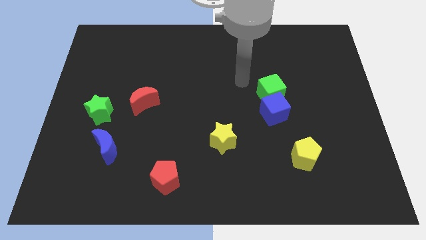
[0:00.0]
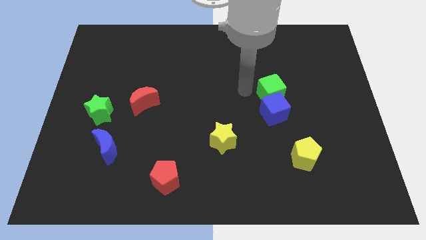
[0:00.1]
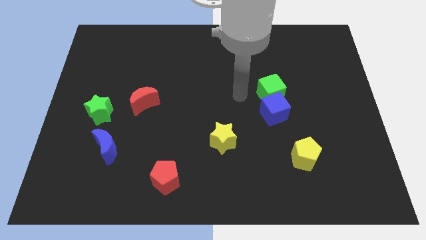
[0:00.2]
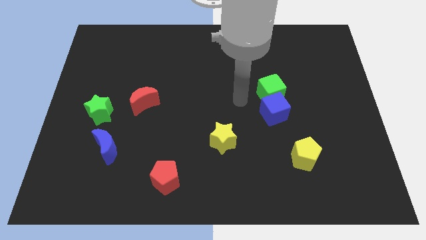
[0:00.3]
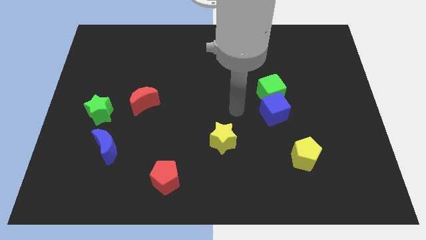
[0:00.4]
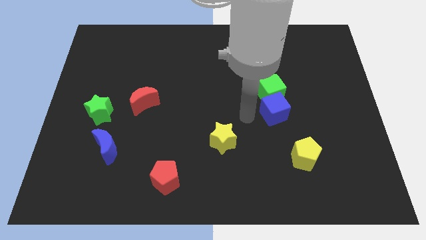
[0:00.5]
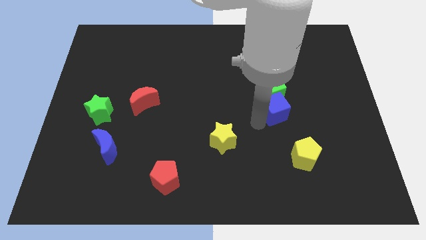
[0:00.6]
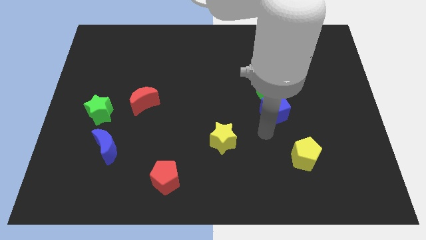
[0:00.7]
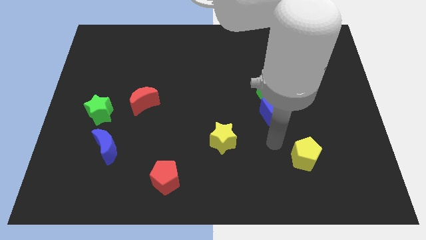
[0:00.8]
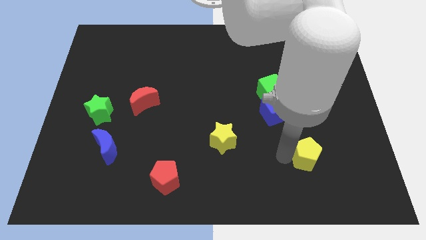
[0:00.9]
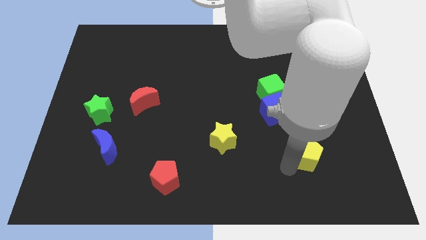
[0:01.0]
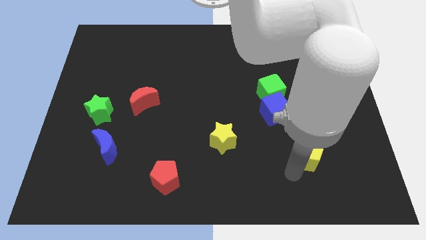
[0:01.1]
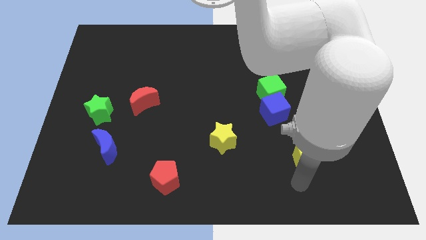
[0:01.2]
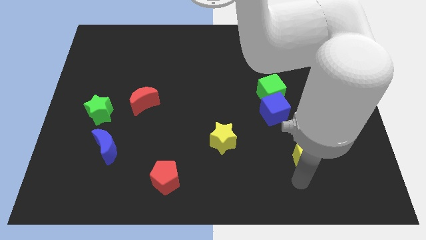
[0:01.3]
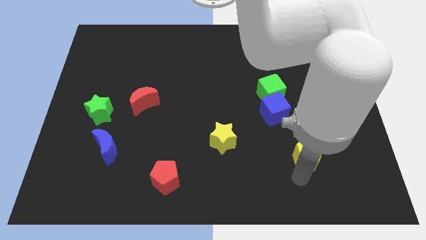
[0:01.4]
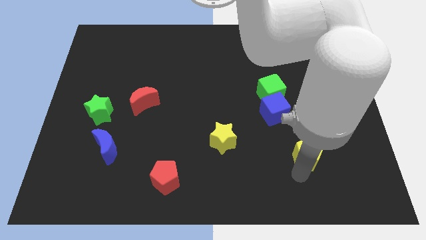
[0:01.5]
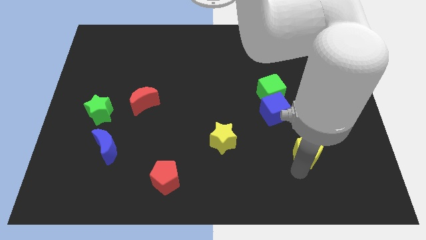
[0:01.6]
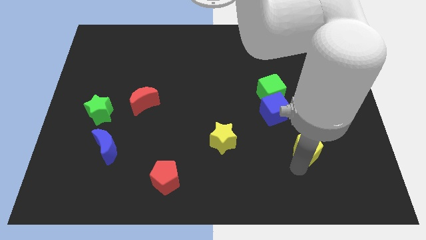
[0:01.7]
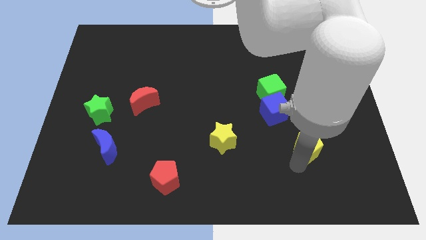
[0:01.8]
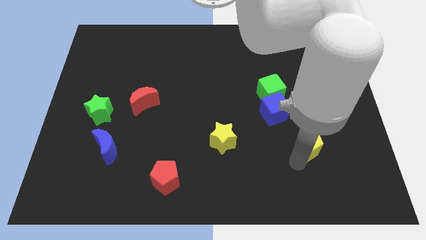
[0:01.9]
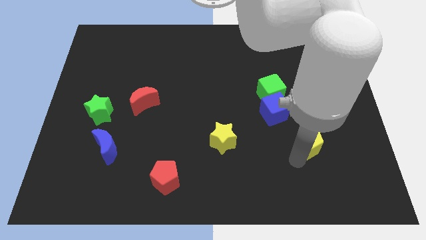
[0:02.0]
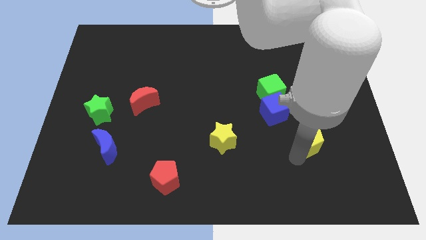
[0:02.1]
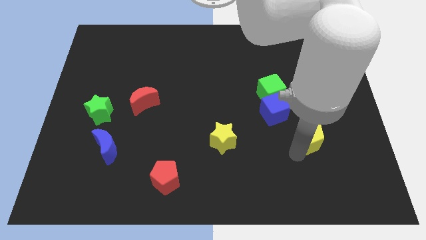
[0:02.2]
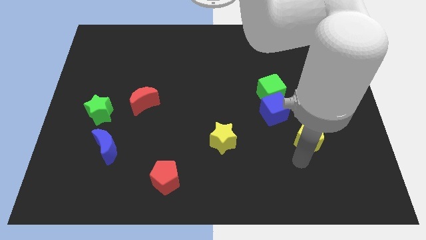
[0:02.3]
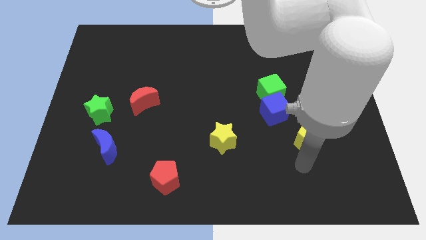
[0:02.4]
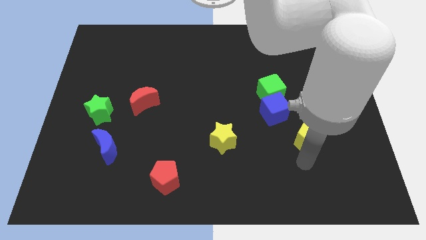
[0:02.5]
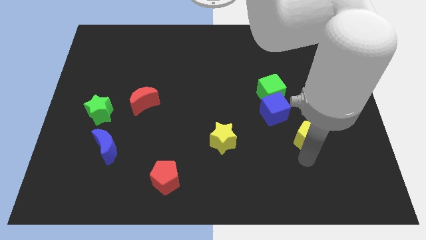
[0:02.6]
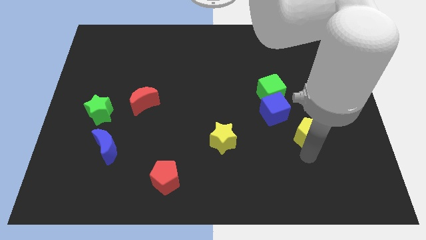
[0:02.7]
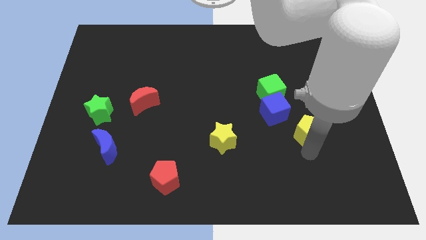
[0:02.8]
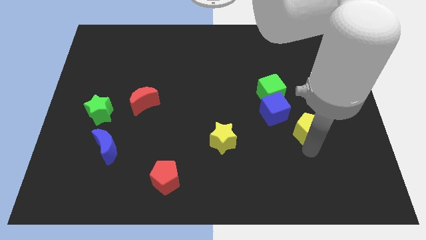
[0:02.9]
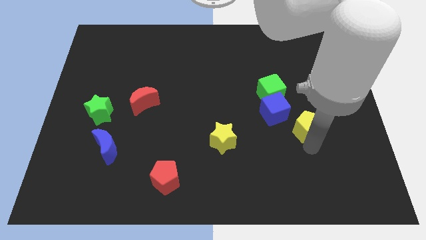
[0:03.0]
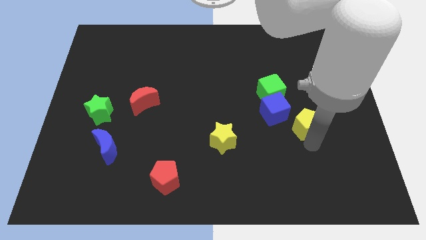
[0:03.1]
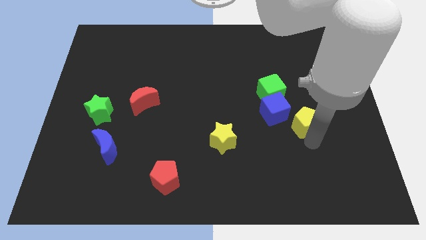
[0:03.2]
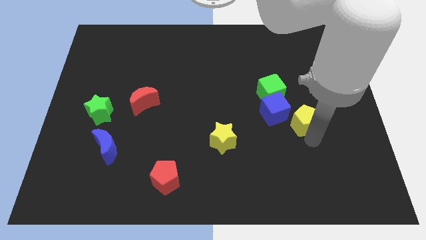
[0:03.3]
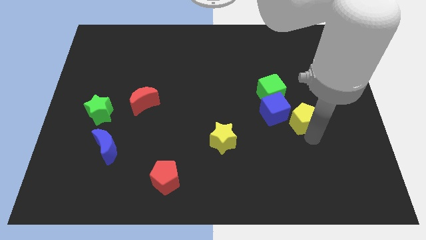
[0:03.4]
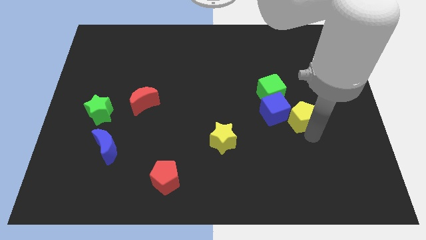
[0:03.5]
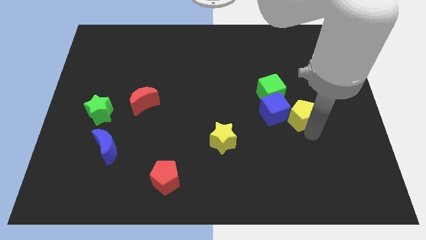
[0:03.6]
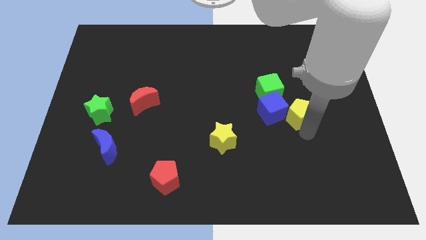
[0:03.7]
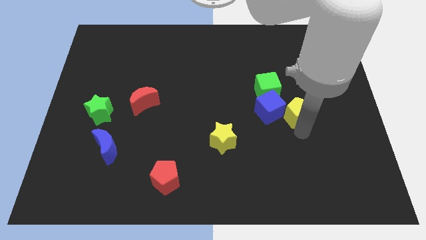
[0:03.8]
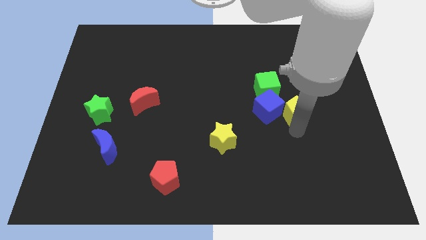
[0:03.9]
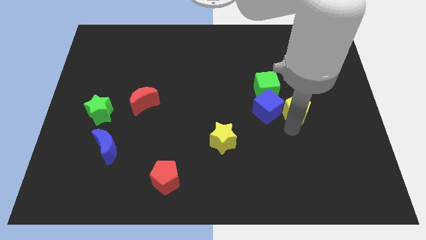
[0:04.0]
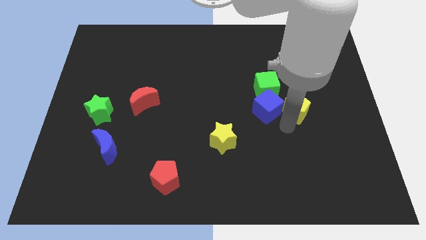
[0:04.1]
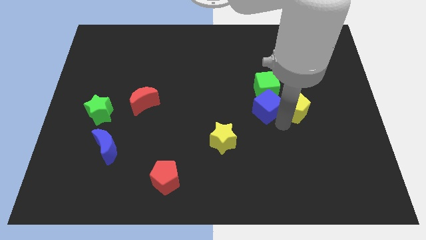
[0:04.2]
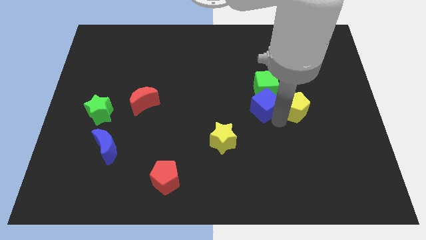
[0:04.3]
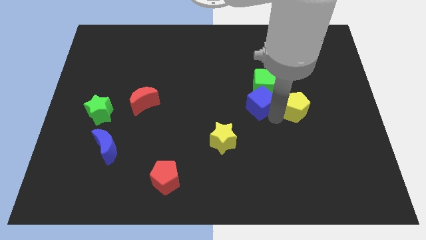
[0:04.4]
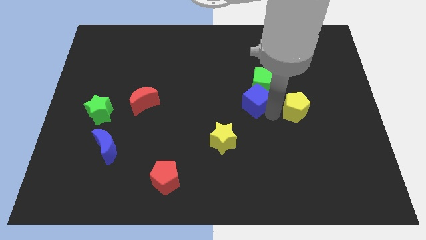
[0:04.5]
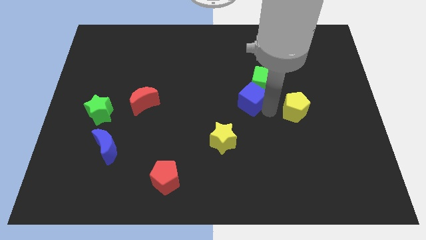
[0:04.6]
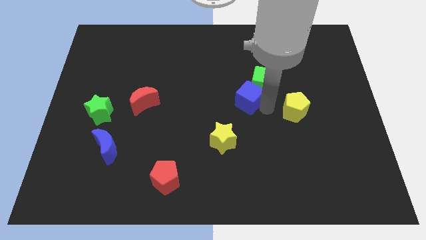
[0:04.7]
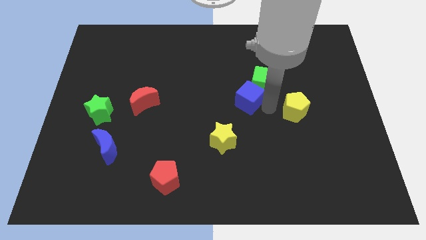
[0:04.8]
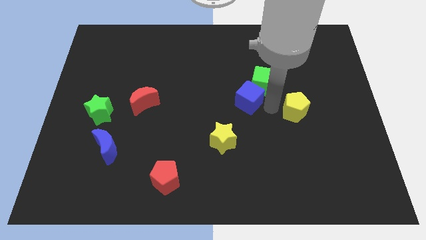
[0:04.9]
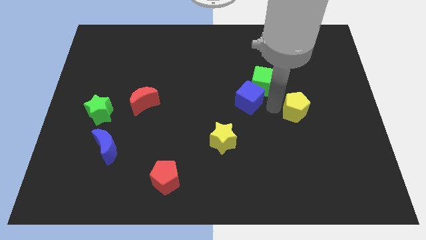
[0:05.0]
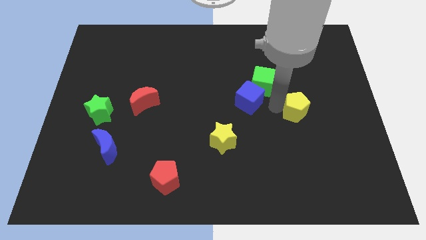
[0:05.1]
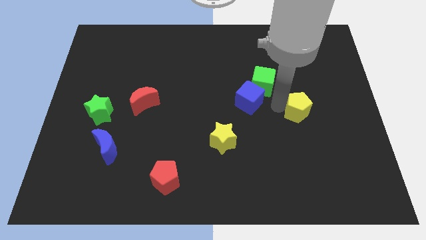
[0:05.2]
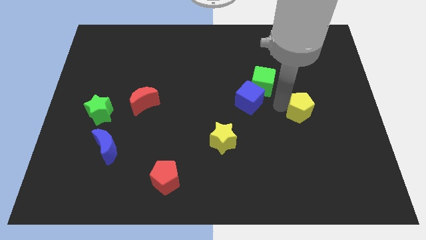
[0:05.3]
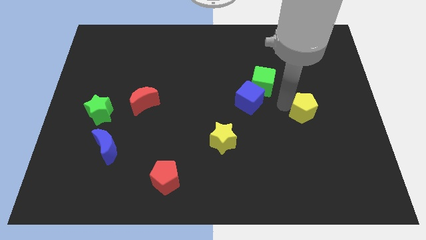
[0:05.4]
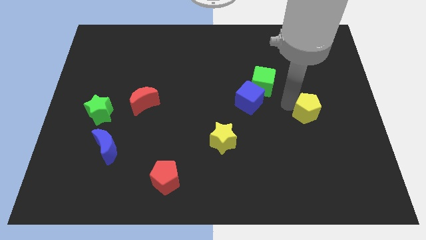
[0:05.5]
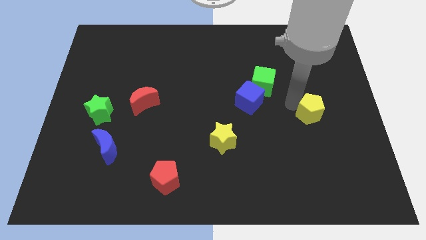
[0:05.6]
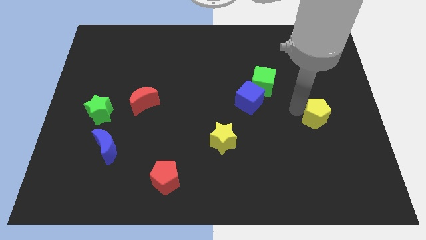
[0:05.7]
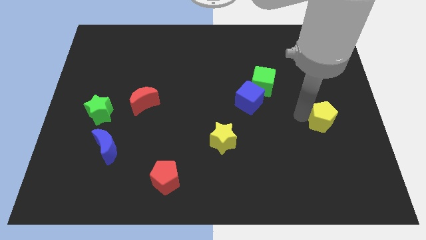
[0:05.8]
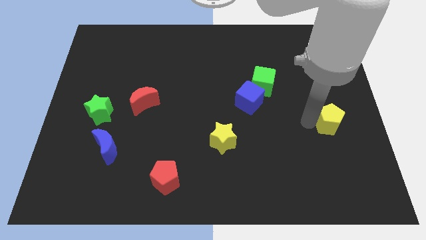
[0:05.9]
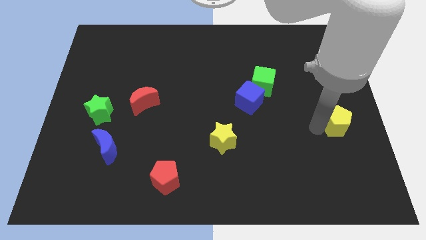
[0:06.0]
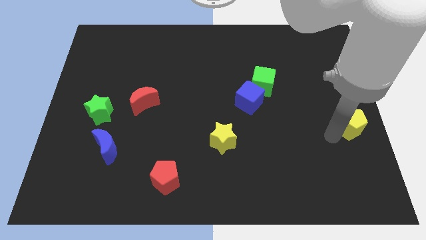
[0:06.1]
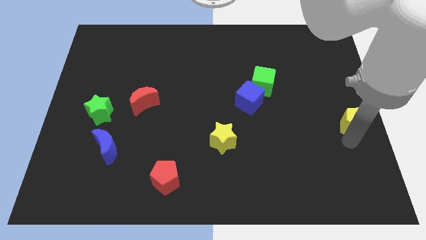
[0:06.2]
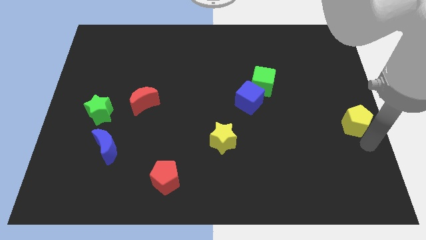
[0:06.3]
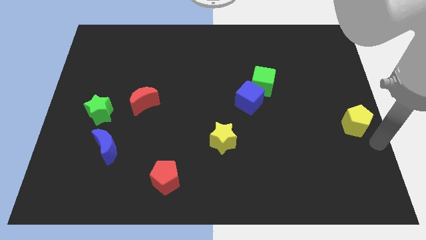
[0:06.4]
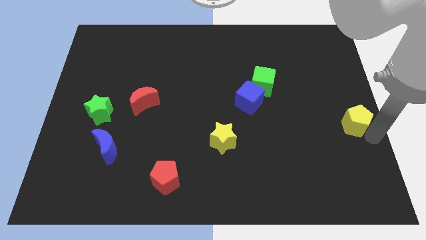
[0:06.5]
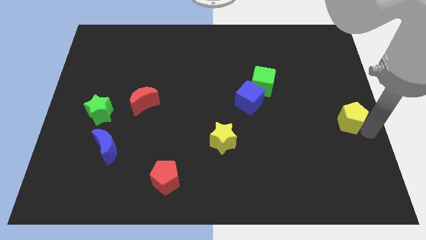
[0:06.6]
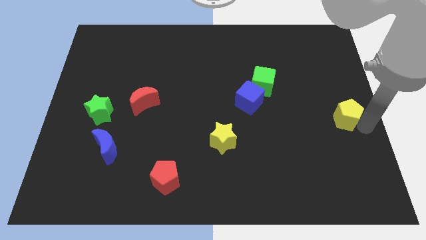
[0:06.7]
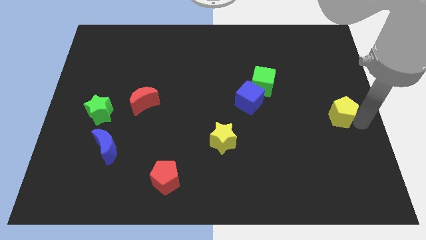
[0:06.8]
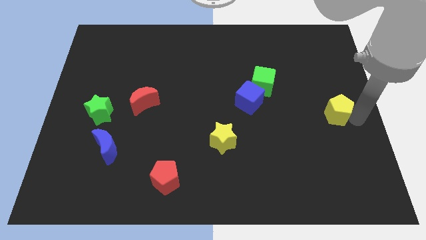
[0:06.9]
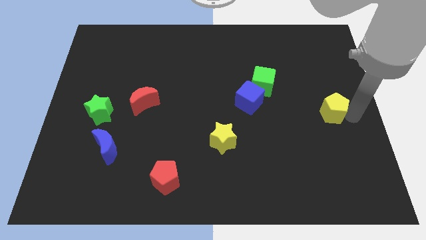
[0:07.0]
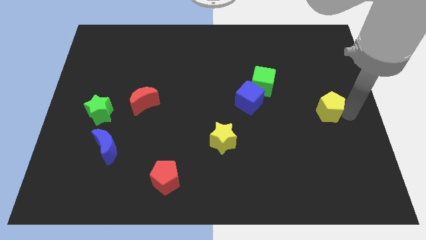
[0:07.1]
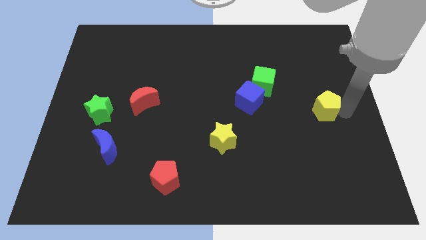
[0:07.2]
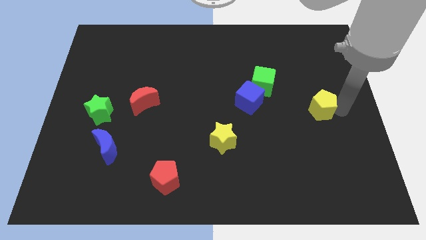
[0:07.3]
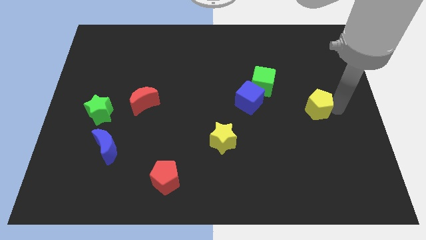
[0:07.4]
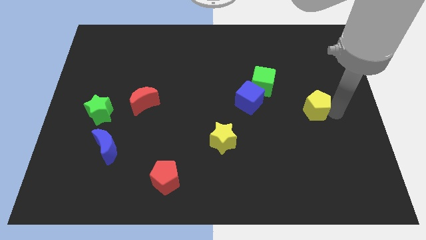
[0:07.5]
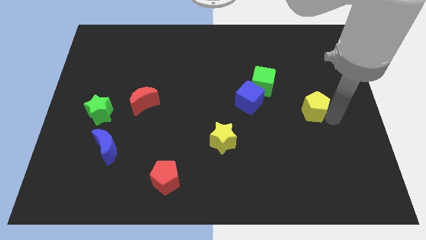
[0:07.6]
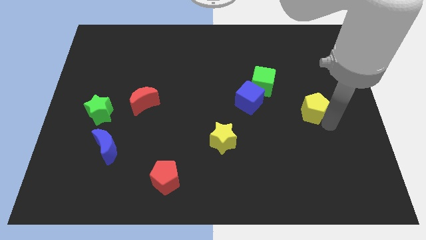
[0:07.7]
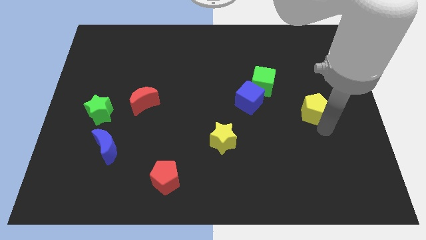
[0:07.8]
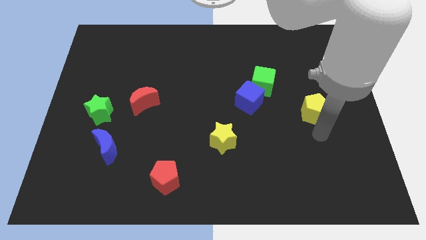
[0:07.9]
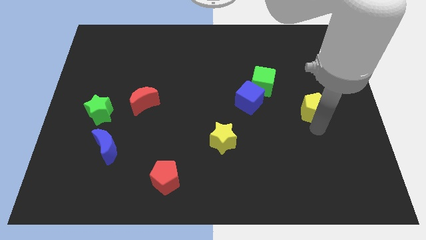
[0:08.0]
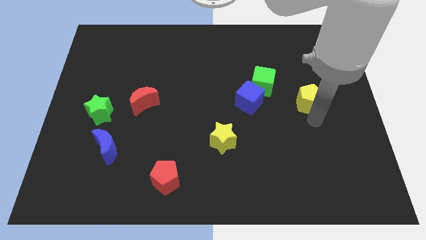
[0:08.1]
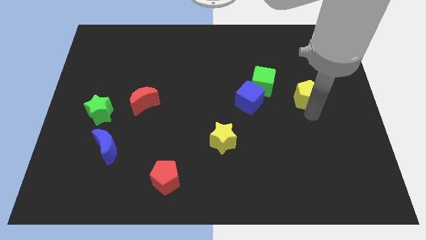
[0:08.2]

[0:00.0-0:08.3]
slide the yellow pentagon right of the green cube
